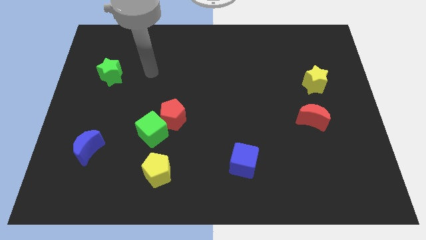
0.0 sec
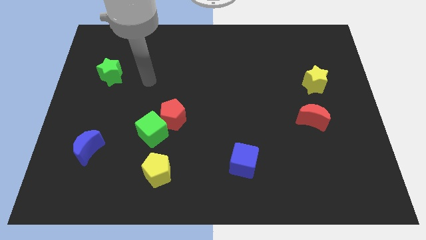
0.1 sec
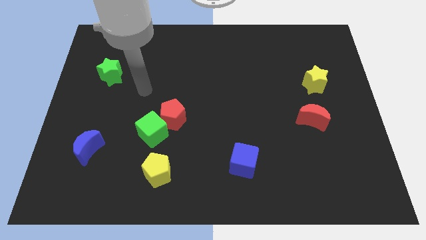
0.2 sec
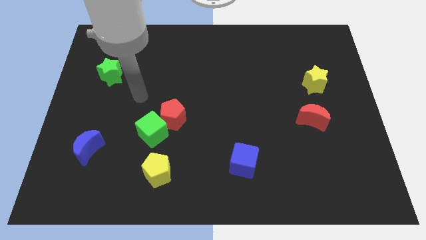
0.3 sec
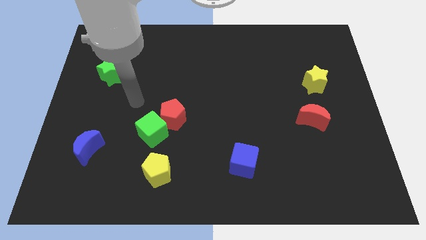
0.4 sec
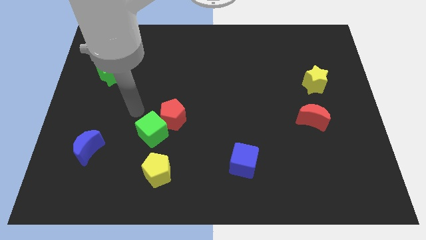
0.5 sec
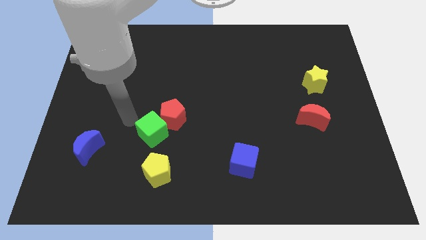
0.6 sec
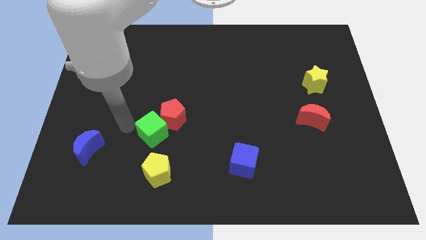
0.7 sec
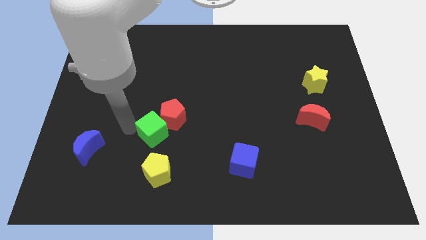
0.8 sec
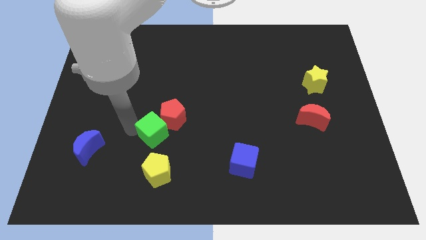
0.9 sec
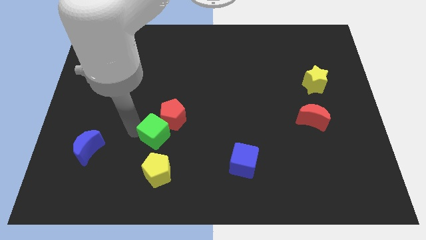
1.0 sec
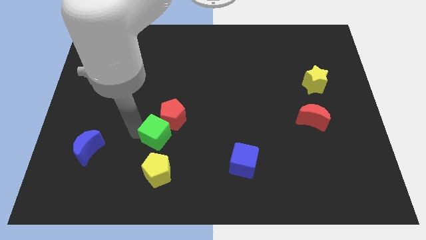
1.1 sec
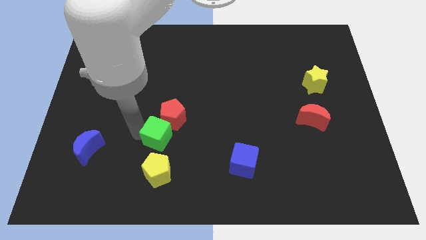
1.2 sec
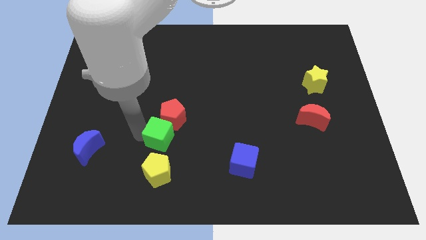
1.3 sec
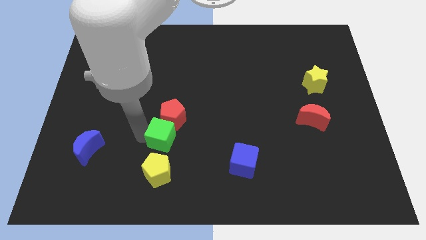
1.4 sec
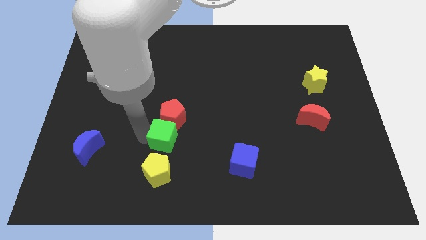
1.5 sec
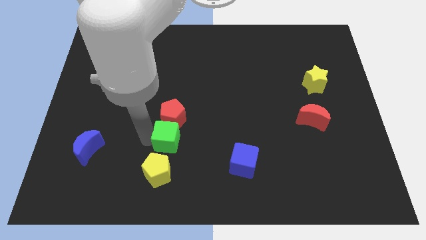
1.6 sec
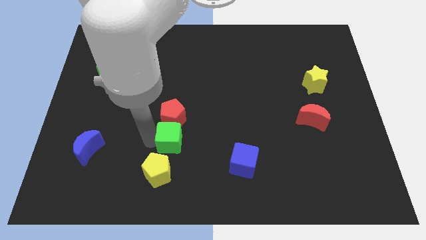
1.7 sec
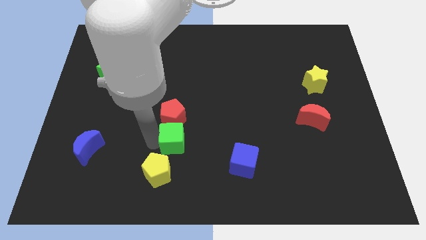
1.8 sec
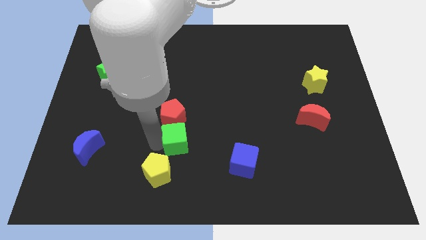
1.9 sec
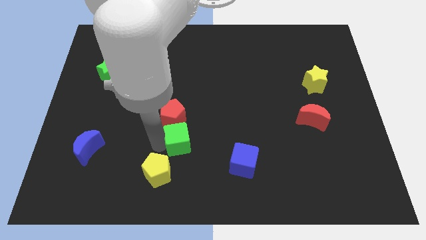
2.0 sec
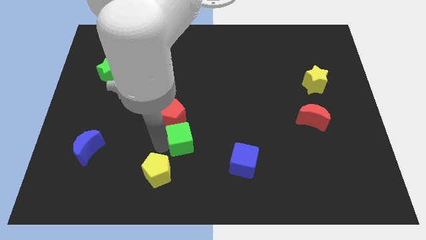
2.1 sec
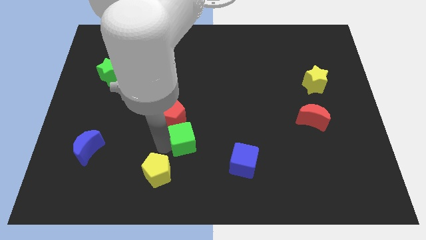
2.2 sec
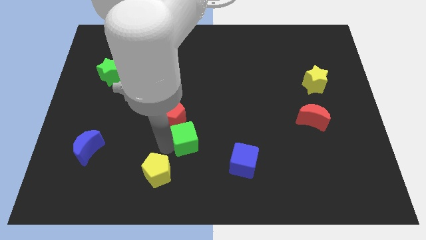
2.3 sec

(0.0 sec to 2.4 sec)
push the green cube right a little bit

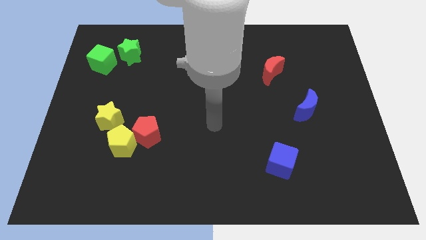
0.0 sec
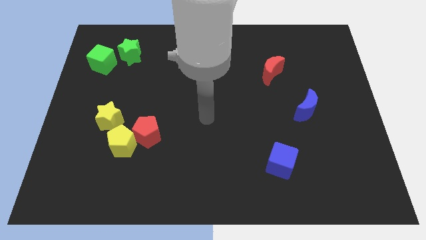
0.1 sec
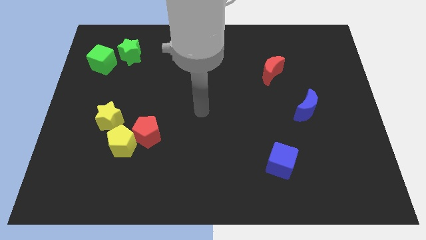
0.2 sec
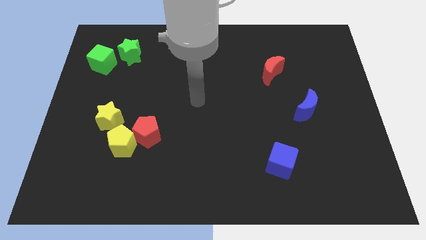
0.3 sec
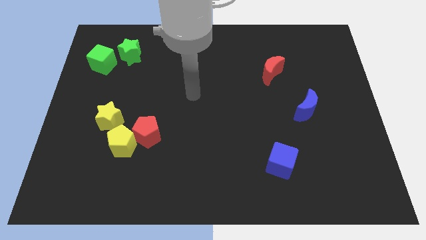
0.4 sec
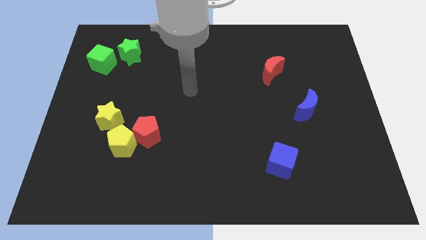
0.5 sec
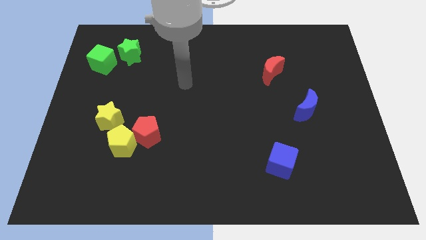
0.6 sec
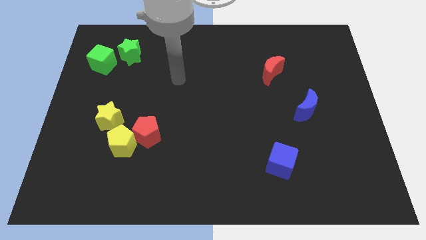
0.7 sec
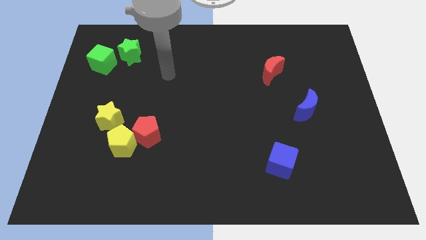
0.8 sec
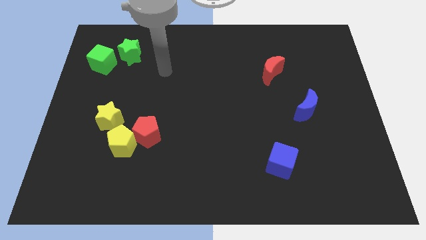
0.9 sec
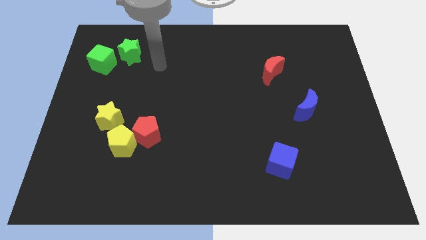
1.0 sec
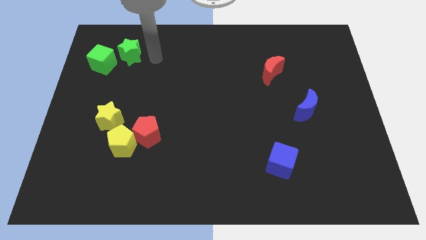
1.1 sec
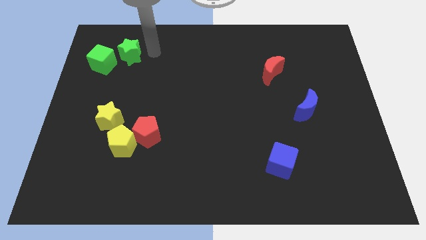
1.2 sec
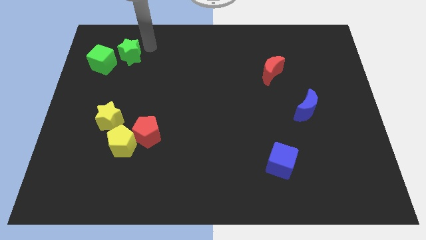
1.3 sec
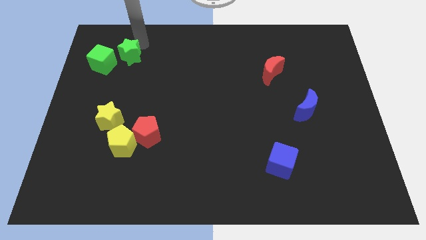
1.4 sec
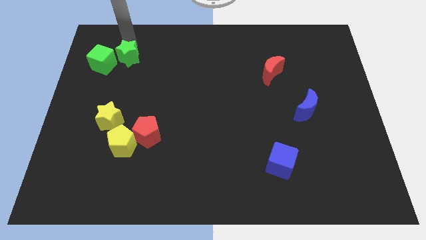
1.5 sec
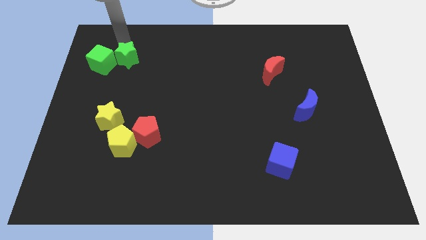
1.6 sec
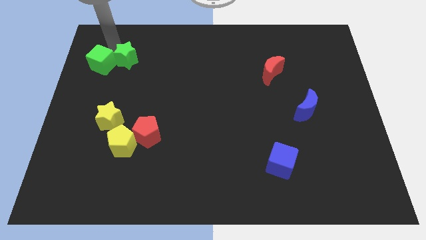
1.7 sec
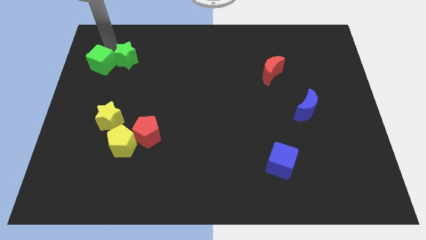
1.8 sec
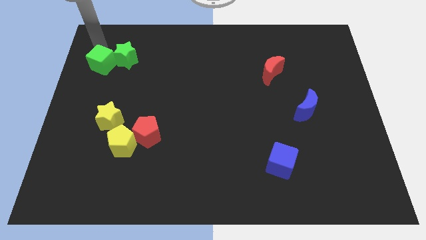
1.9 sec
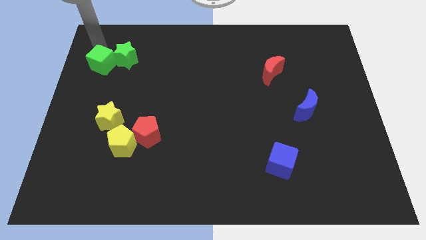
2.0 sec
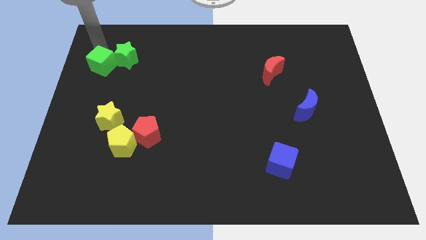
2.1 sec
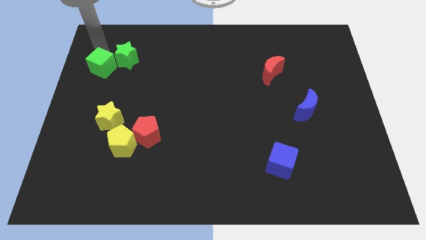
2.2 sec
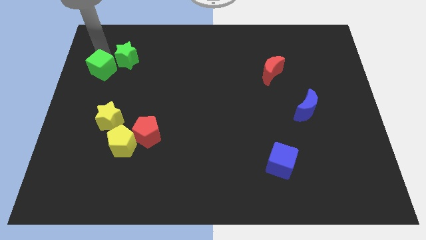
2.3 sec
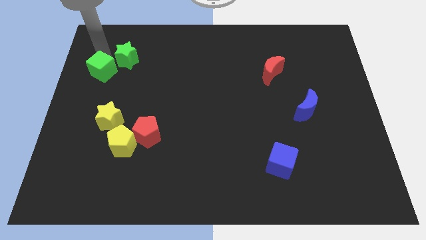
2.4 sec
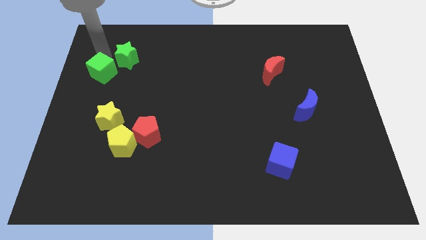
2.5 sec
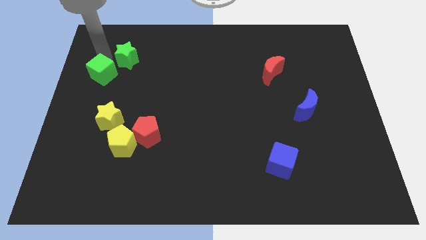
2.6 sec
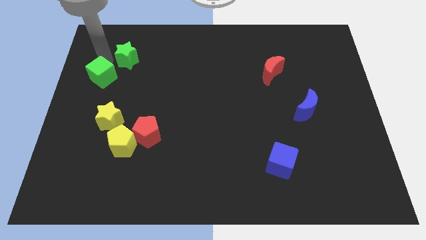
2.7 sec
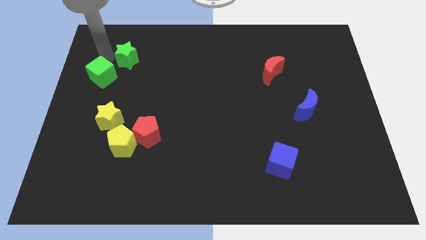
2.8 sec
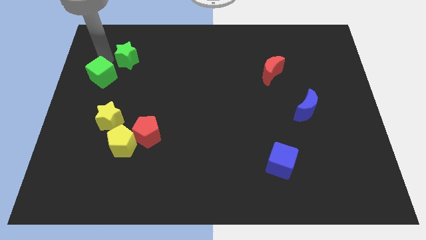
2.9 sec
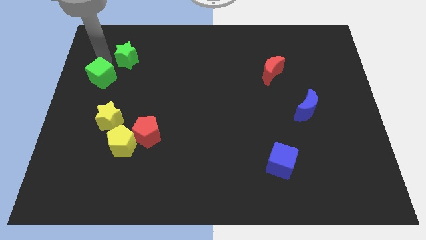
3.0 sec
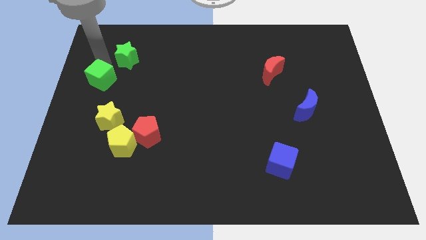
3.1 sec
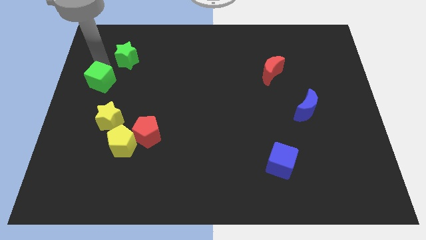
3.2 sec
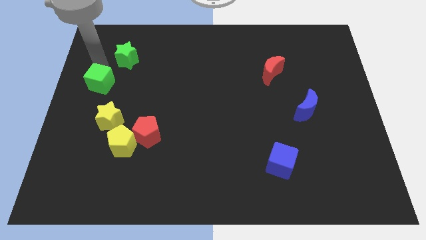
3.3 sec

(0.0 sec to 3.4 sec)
slightly move the green cube downwards

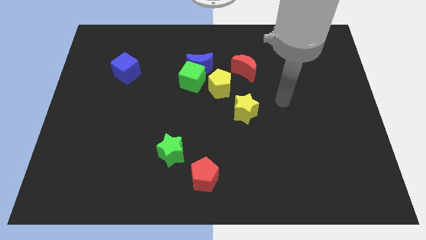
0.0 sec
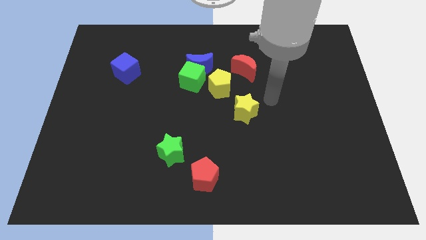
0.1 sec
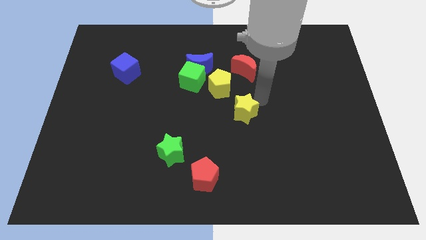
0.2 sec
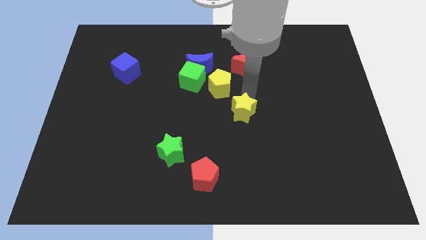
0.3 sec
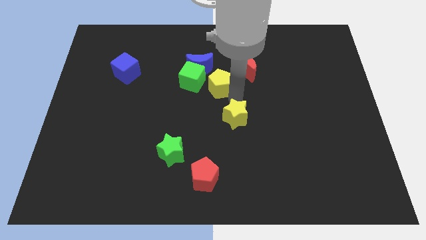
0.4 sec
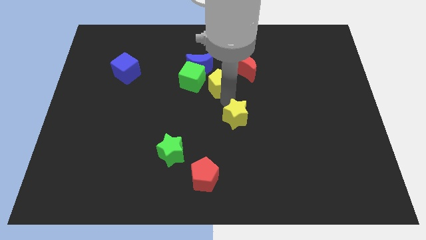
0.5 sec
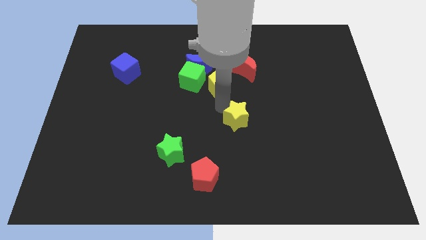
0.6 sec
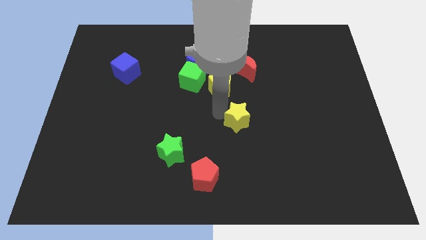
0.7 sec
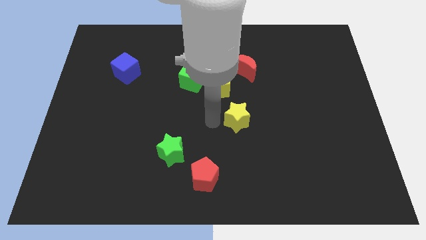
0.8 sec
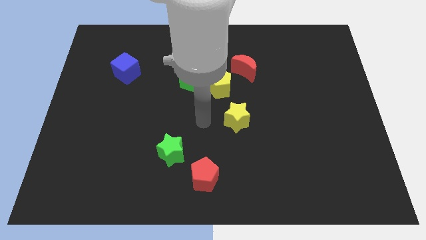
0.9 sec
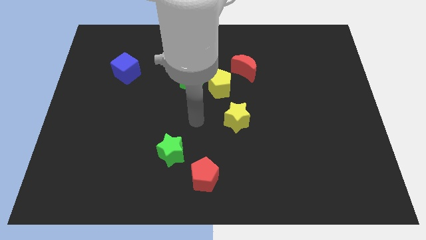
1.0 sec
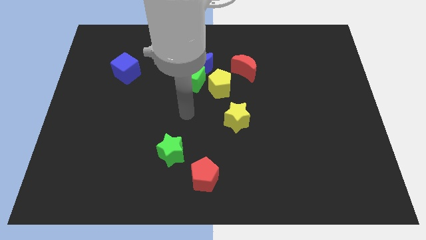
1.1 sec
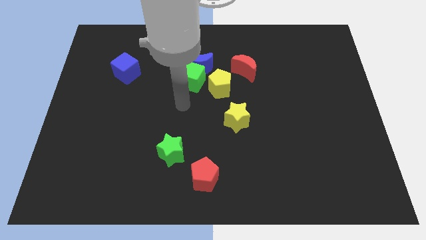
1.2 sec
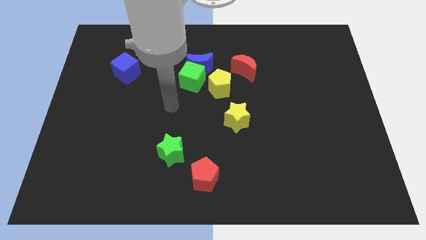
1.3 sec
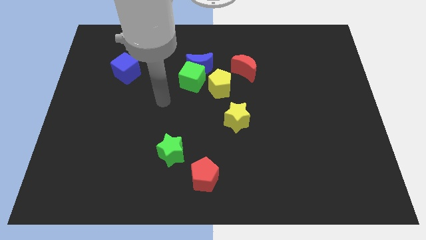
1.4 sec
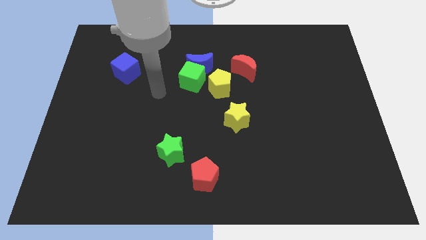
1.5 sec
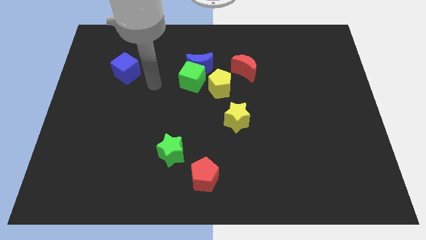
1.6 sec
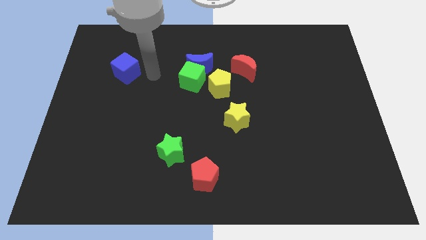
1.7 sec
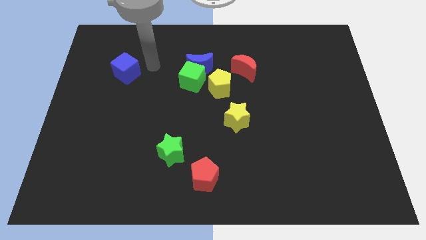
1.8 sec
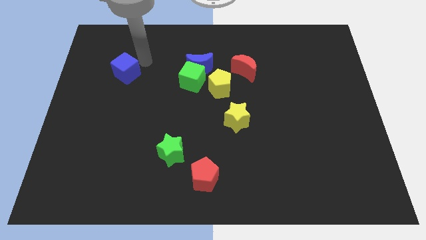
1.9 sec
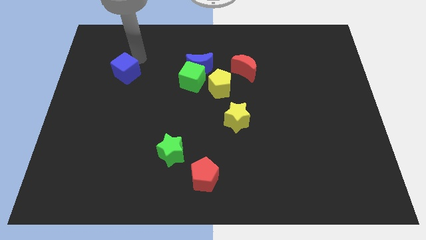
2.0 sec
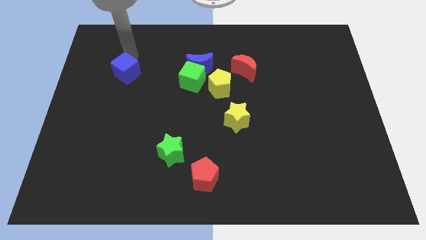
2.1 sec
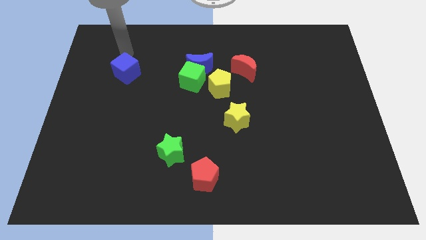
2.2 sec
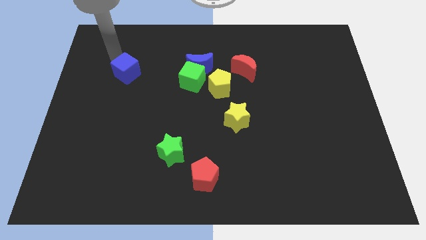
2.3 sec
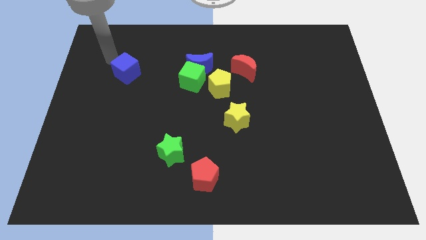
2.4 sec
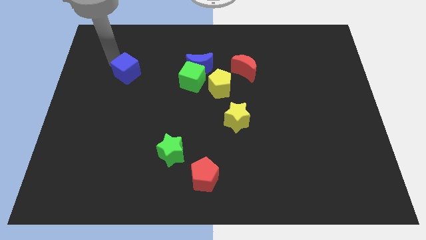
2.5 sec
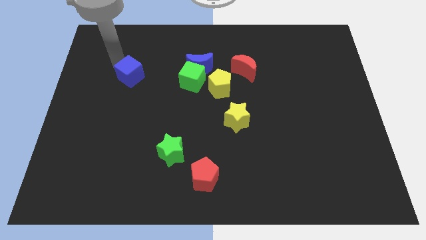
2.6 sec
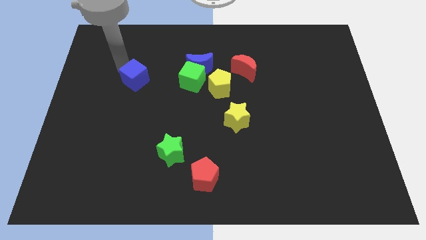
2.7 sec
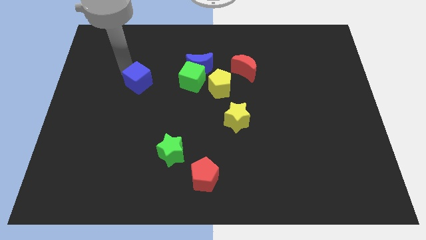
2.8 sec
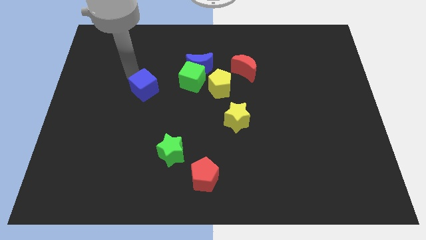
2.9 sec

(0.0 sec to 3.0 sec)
slide the blue cube diagonally down and right slightly
